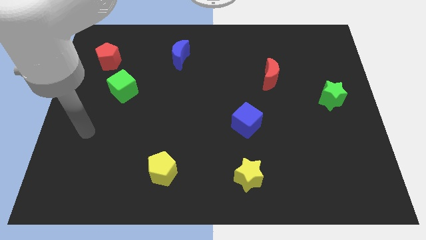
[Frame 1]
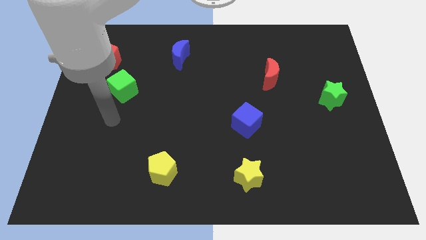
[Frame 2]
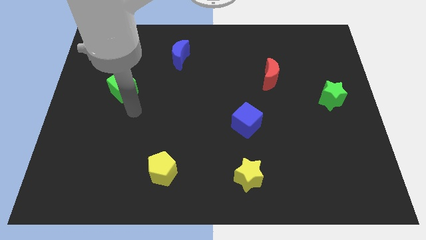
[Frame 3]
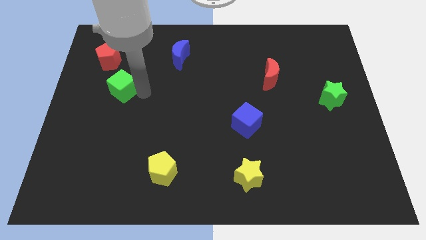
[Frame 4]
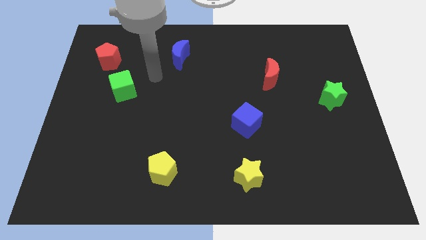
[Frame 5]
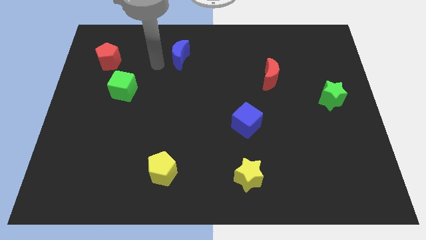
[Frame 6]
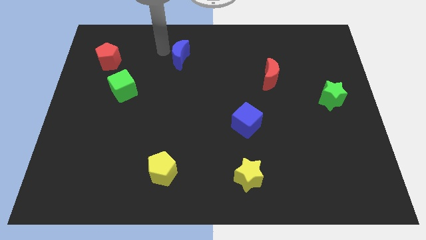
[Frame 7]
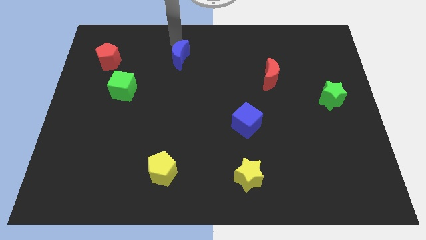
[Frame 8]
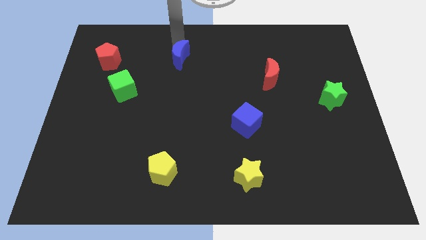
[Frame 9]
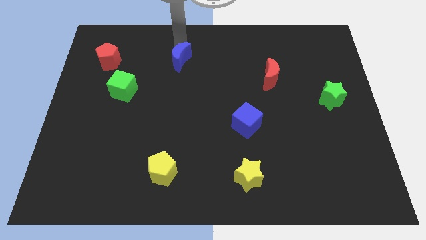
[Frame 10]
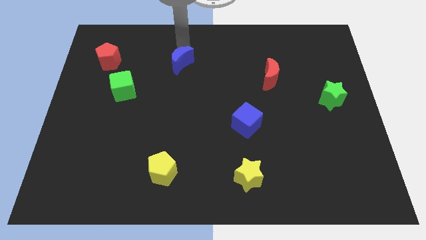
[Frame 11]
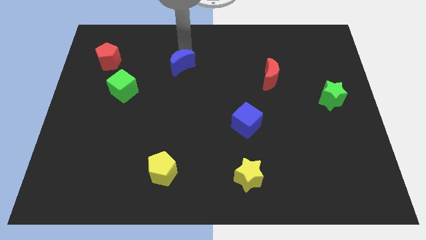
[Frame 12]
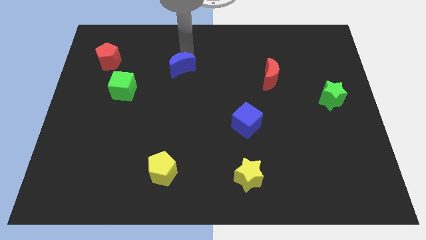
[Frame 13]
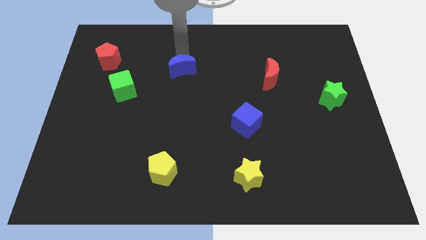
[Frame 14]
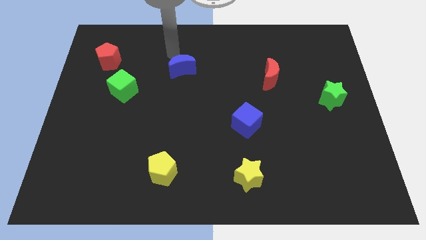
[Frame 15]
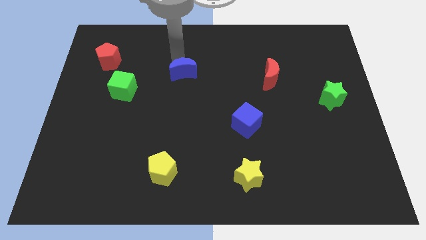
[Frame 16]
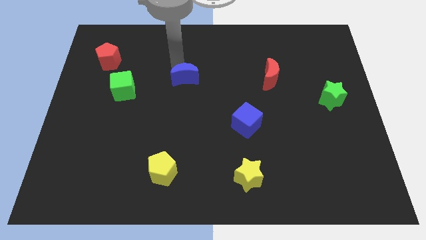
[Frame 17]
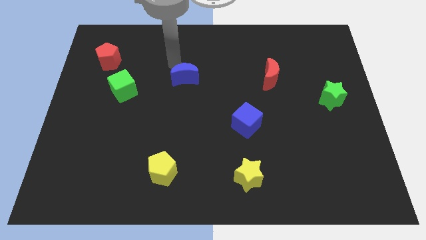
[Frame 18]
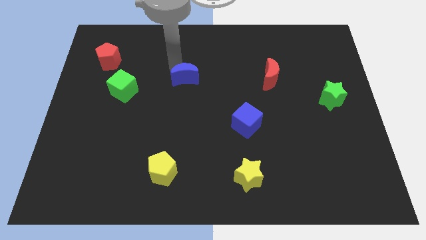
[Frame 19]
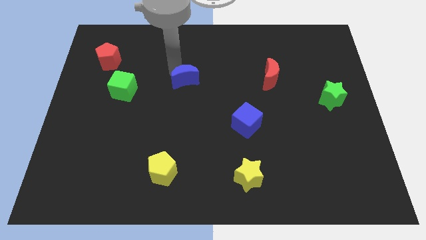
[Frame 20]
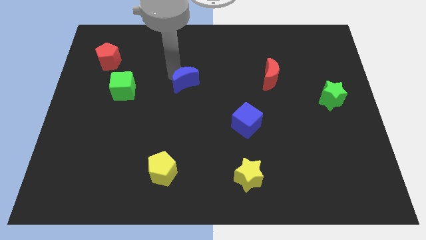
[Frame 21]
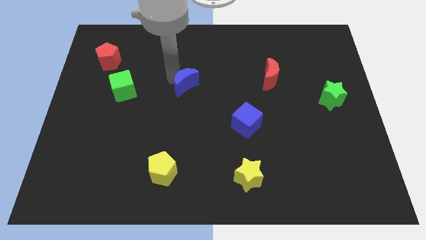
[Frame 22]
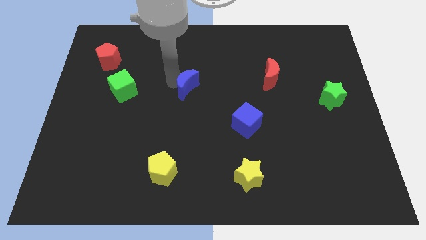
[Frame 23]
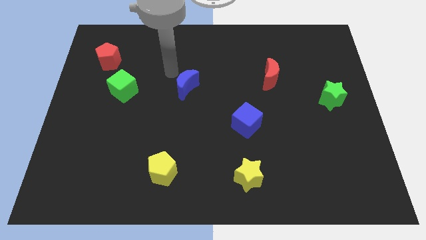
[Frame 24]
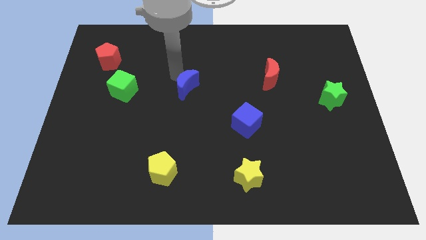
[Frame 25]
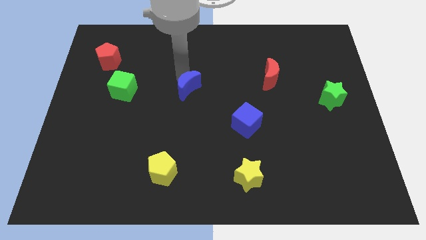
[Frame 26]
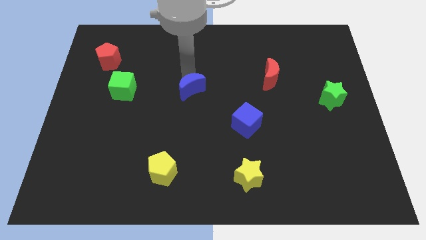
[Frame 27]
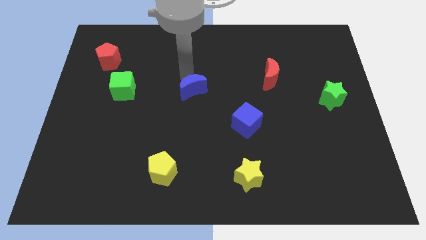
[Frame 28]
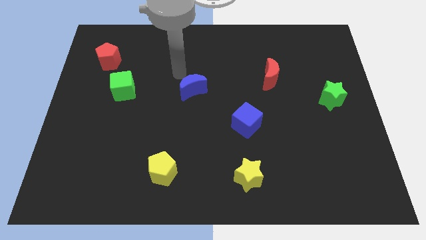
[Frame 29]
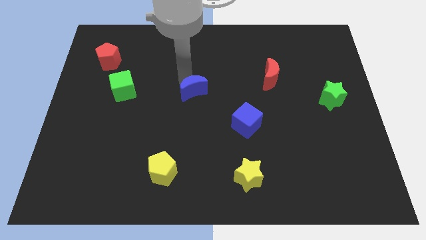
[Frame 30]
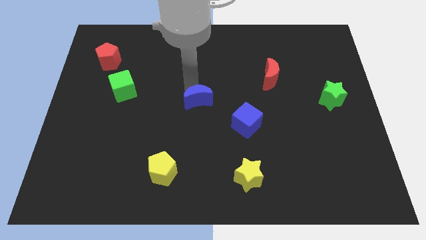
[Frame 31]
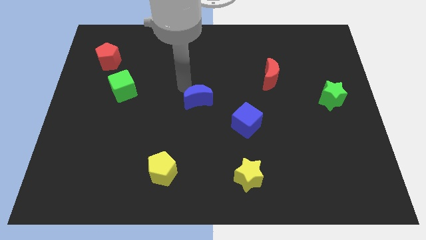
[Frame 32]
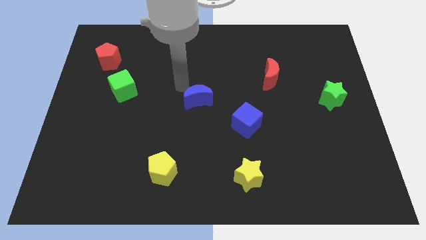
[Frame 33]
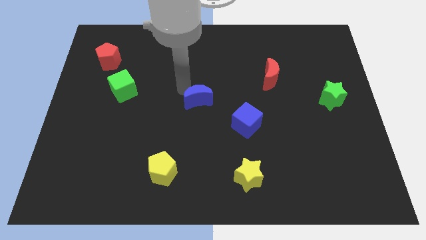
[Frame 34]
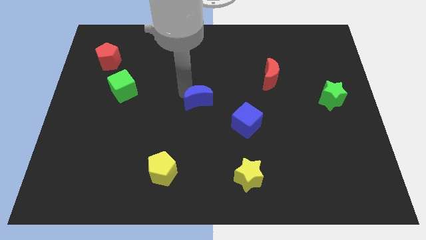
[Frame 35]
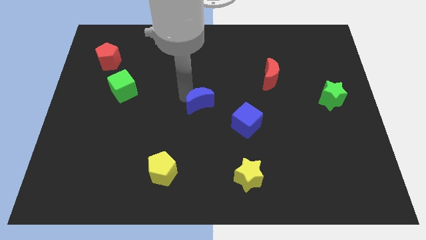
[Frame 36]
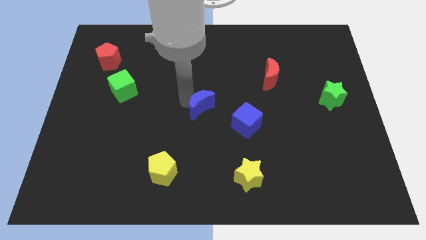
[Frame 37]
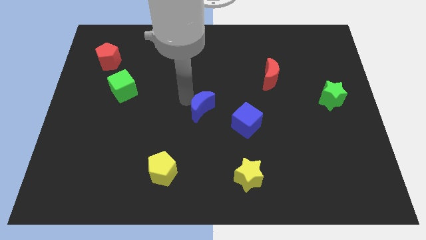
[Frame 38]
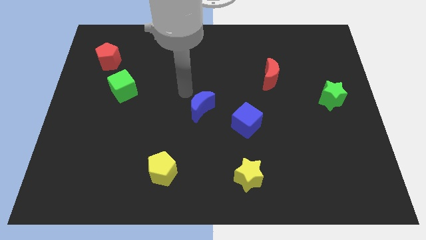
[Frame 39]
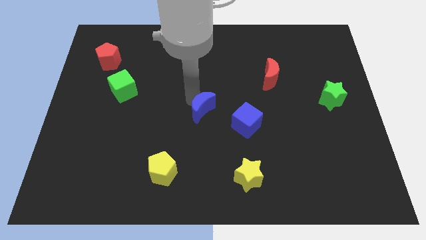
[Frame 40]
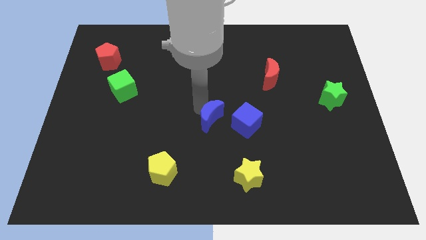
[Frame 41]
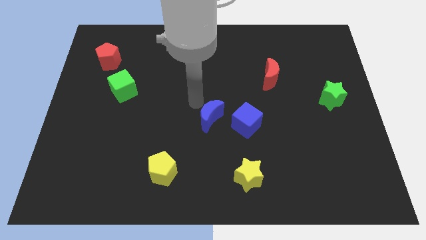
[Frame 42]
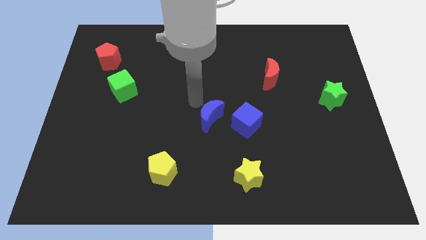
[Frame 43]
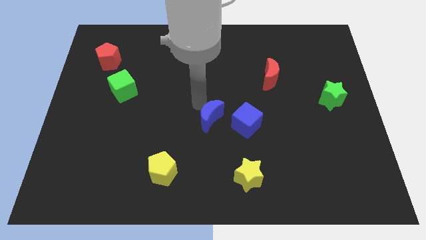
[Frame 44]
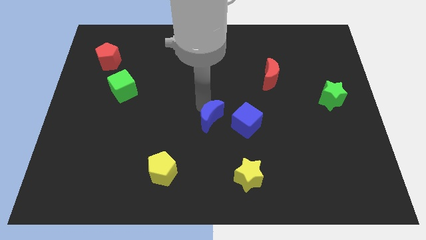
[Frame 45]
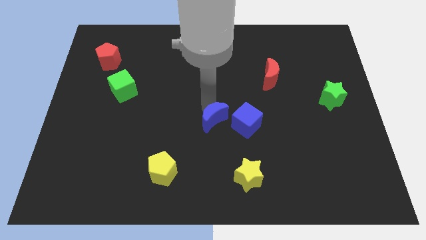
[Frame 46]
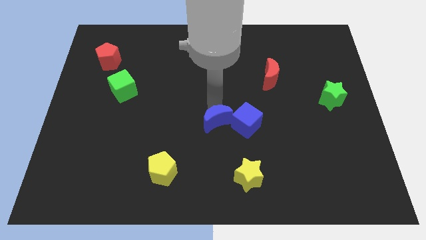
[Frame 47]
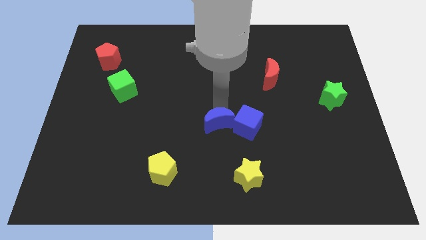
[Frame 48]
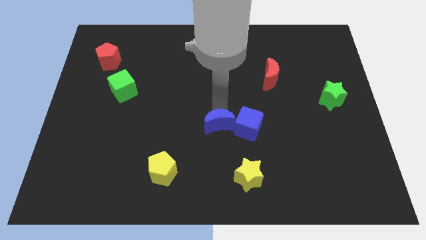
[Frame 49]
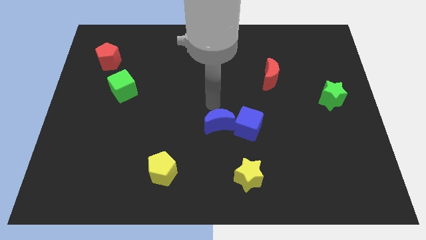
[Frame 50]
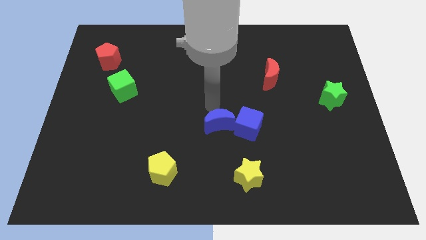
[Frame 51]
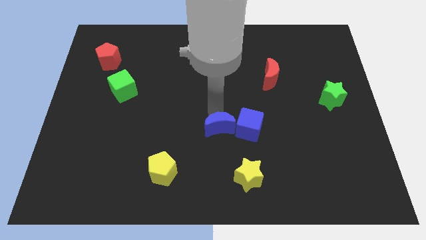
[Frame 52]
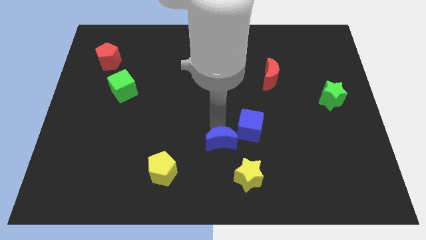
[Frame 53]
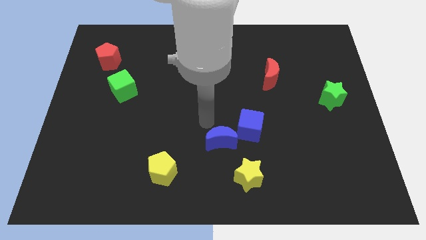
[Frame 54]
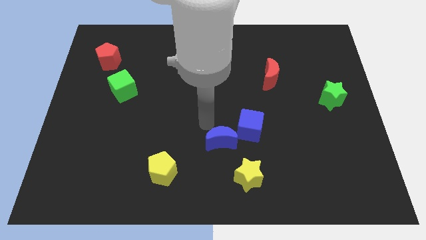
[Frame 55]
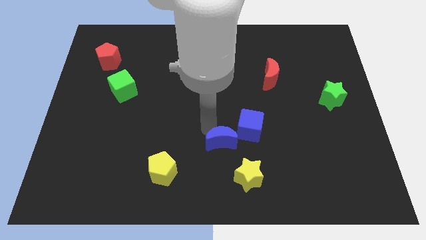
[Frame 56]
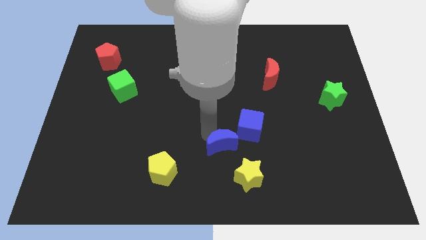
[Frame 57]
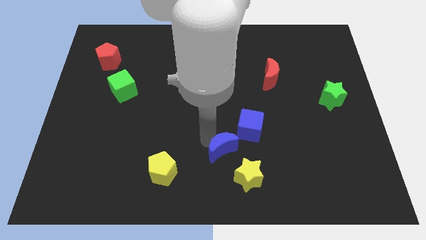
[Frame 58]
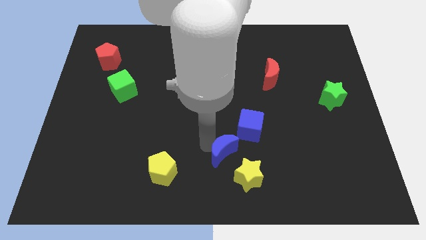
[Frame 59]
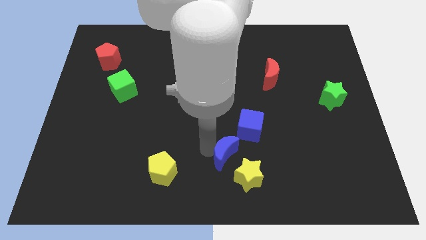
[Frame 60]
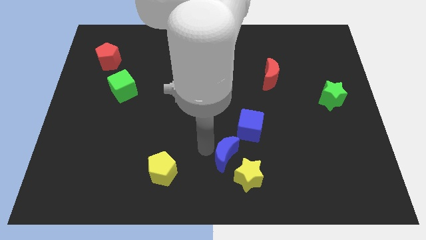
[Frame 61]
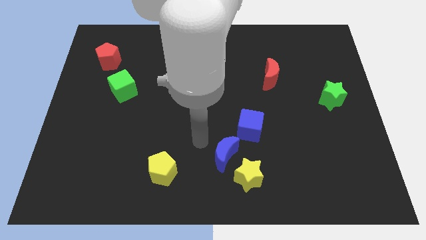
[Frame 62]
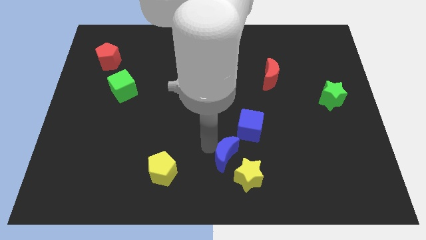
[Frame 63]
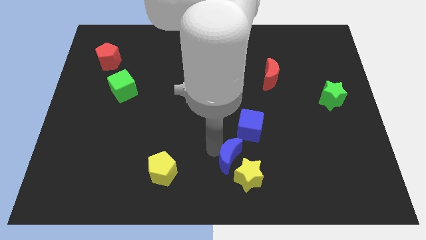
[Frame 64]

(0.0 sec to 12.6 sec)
put the blue moon next to the yellow star
